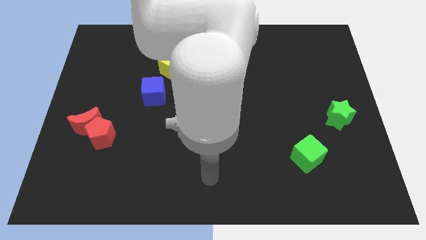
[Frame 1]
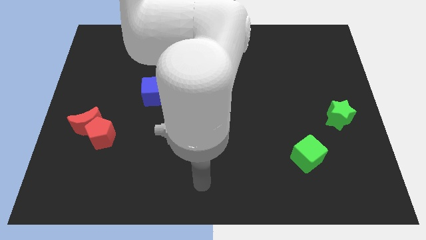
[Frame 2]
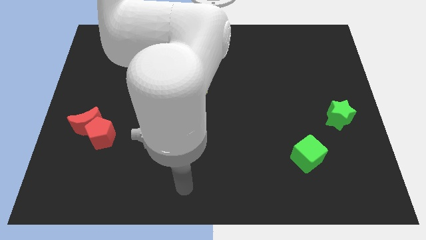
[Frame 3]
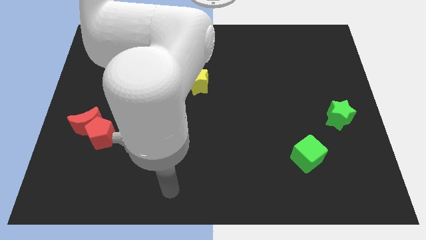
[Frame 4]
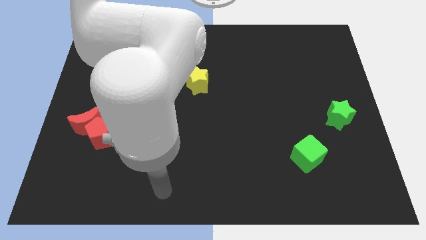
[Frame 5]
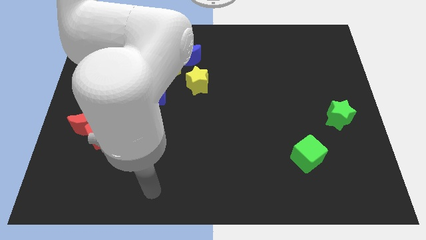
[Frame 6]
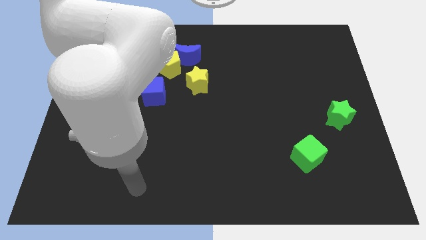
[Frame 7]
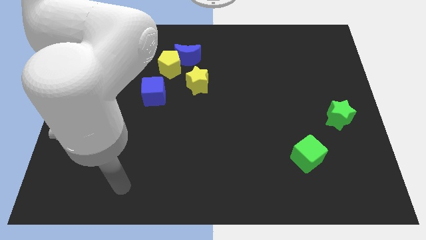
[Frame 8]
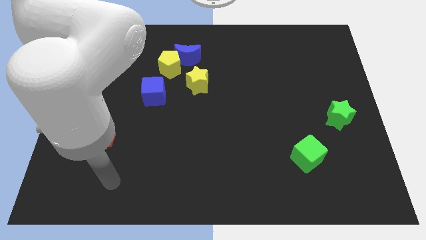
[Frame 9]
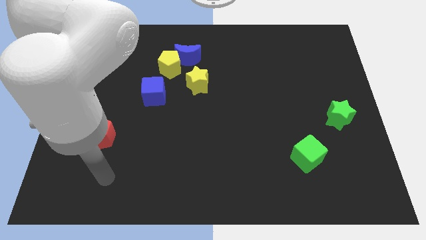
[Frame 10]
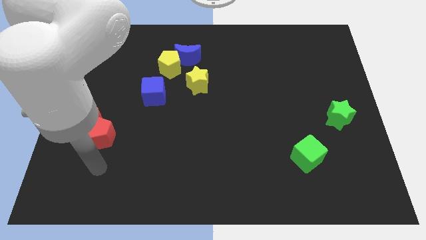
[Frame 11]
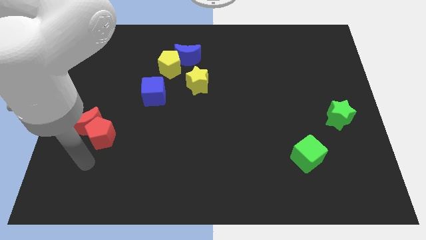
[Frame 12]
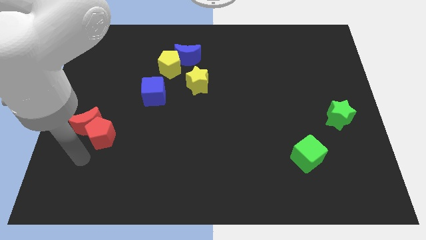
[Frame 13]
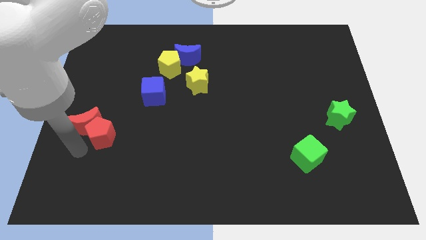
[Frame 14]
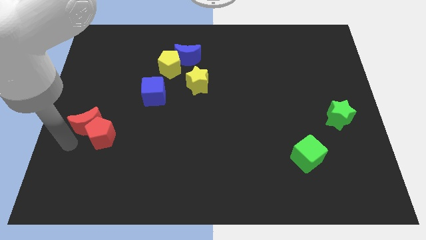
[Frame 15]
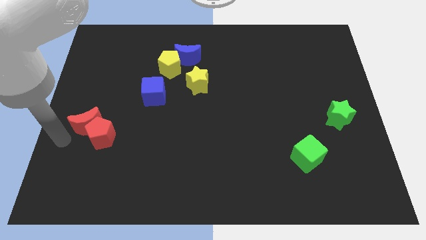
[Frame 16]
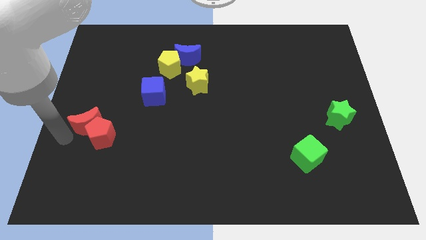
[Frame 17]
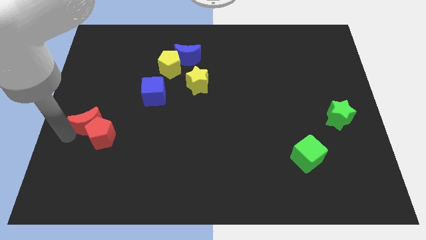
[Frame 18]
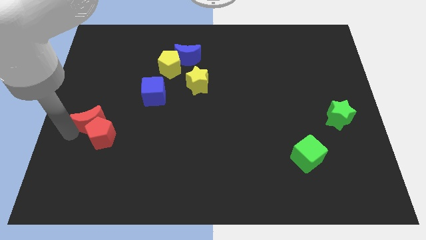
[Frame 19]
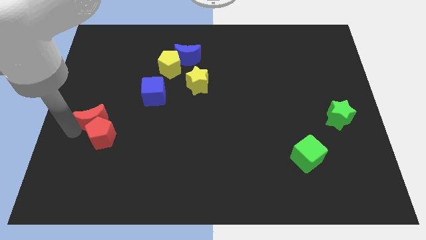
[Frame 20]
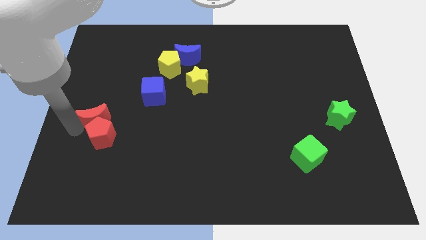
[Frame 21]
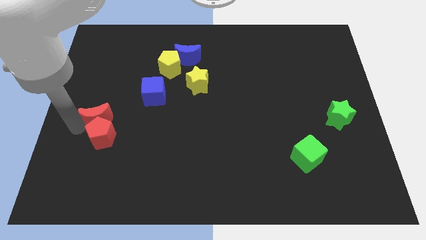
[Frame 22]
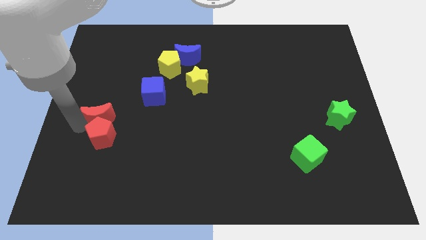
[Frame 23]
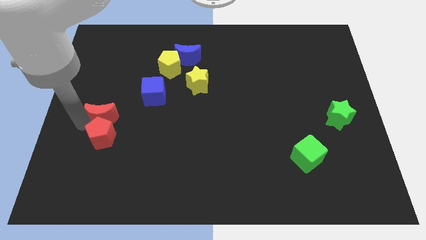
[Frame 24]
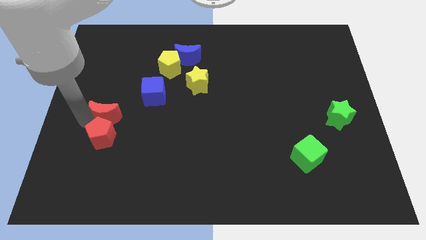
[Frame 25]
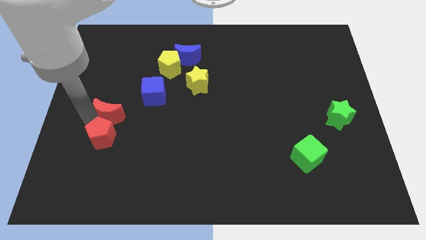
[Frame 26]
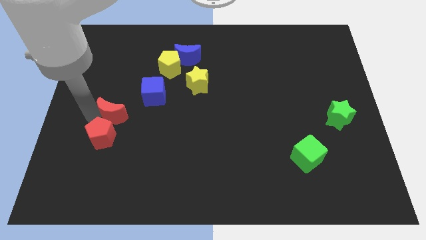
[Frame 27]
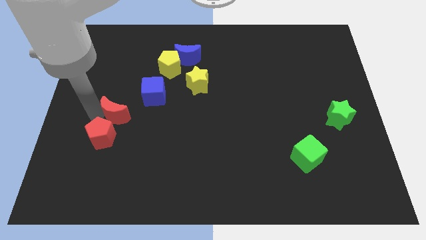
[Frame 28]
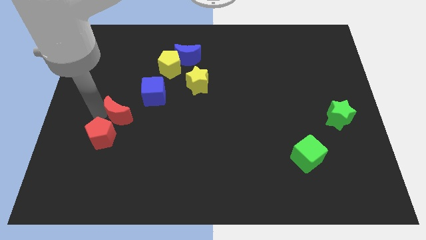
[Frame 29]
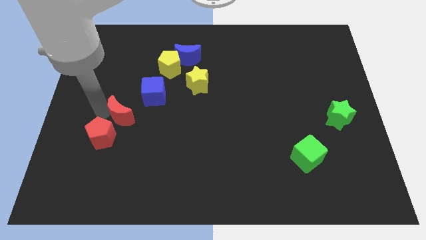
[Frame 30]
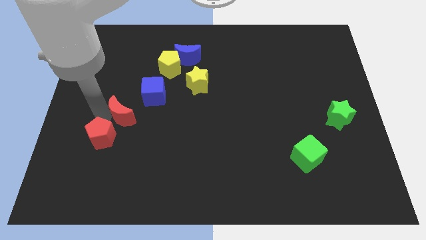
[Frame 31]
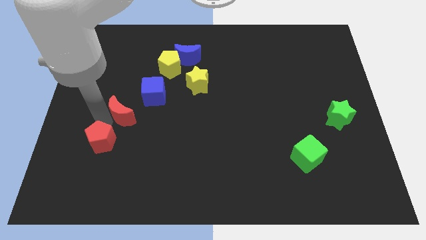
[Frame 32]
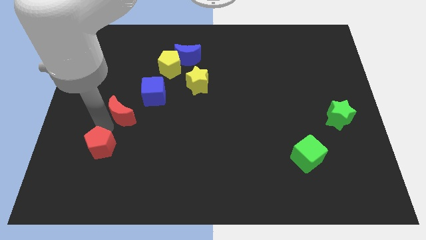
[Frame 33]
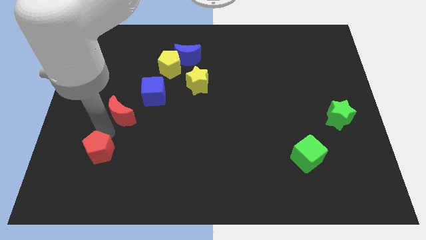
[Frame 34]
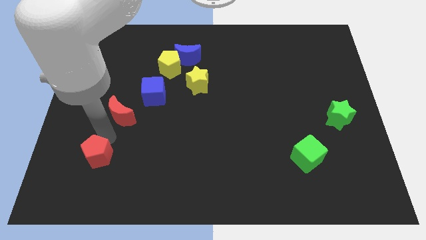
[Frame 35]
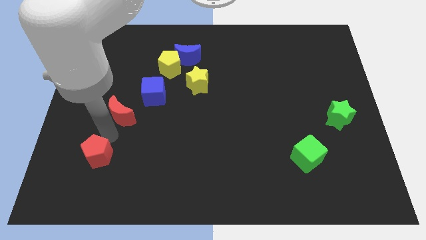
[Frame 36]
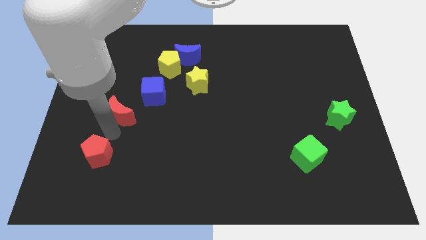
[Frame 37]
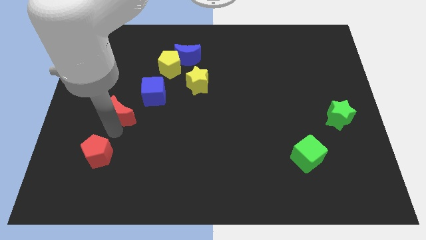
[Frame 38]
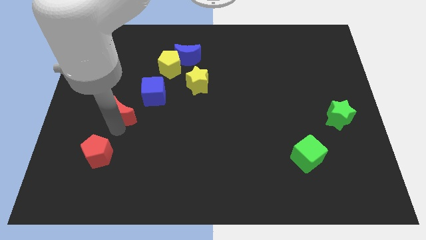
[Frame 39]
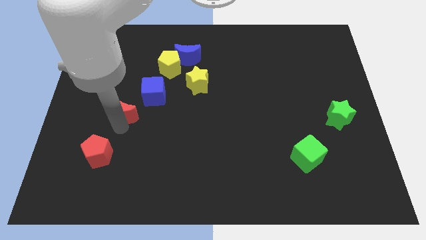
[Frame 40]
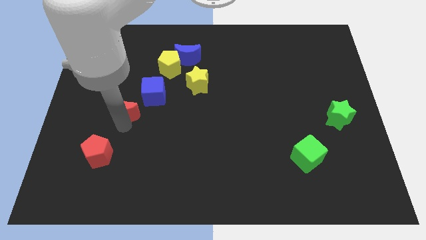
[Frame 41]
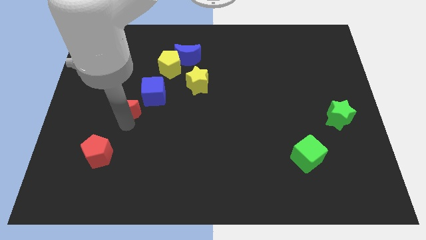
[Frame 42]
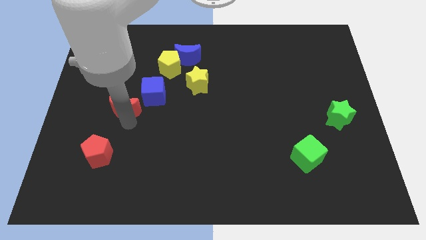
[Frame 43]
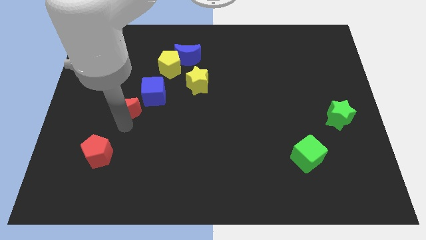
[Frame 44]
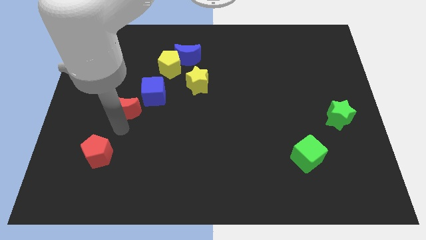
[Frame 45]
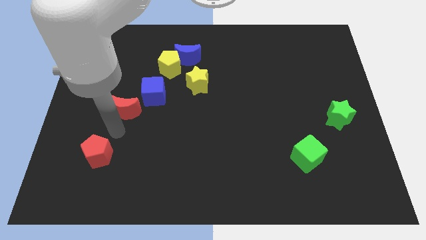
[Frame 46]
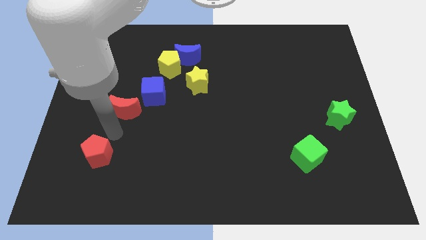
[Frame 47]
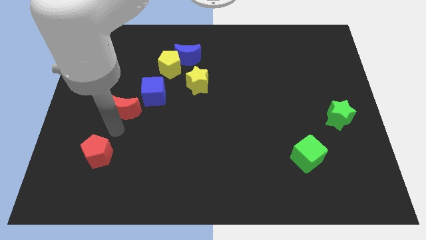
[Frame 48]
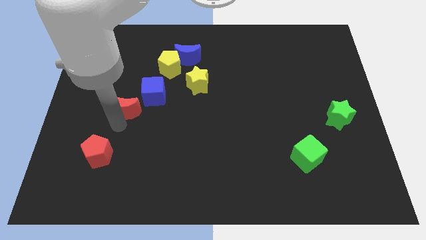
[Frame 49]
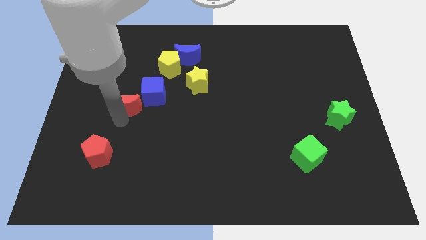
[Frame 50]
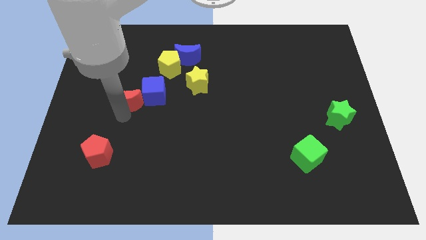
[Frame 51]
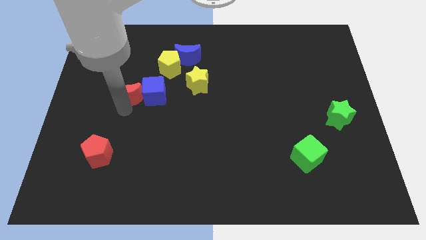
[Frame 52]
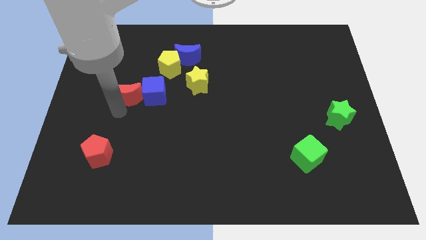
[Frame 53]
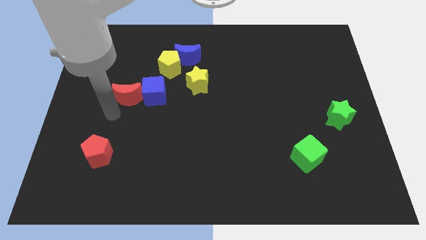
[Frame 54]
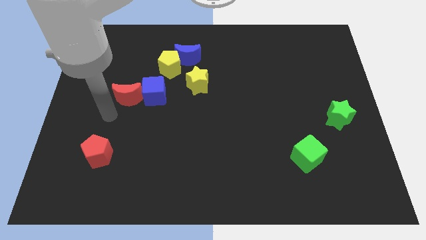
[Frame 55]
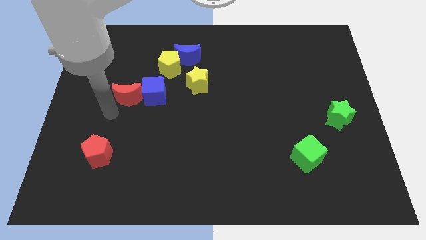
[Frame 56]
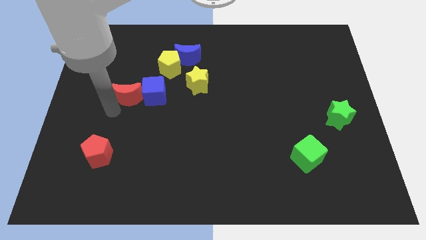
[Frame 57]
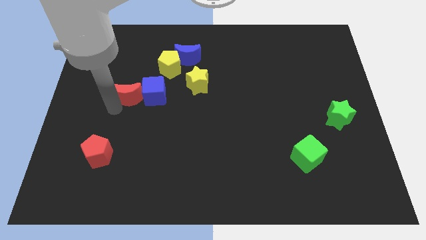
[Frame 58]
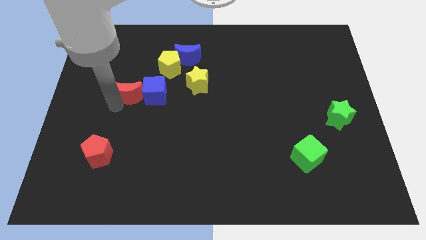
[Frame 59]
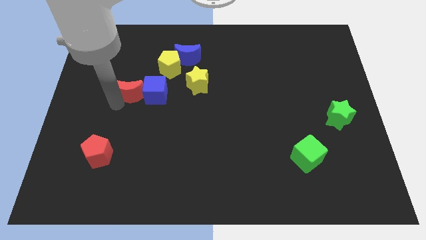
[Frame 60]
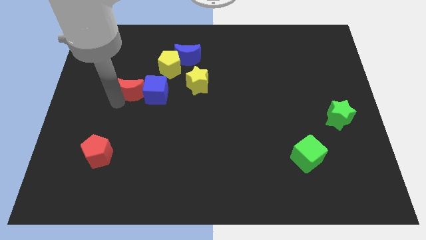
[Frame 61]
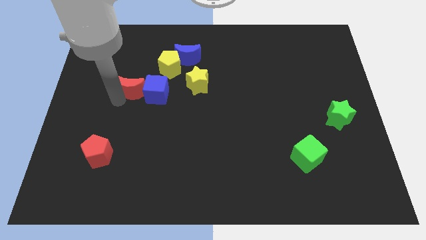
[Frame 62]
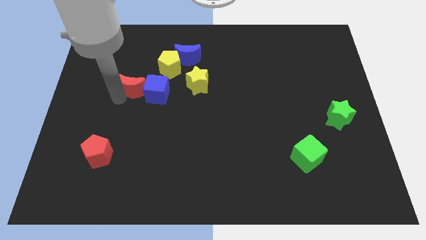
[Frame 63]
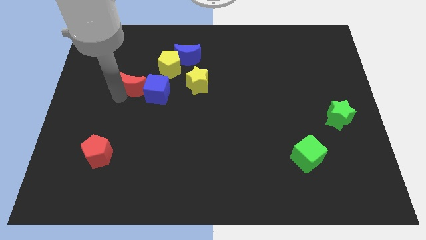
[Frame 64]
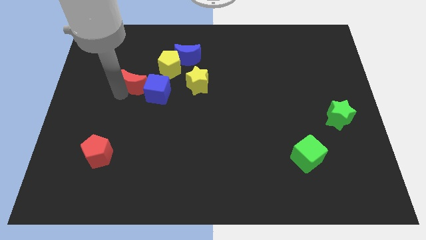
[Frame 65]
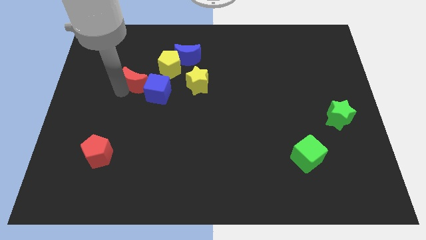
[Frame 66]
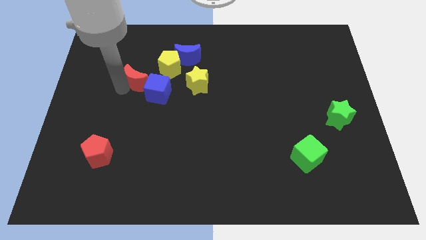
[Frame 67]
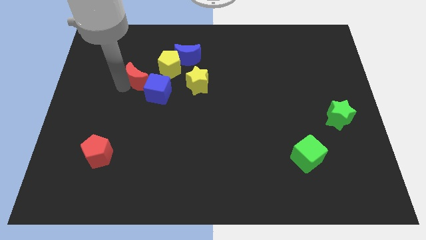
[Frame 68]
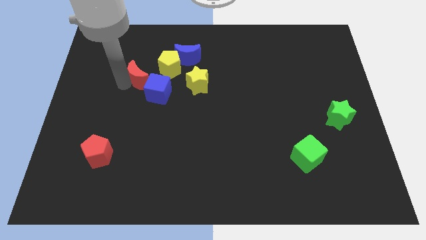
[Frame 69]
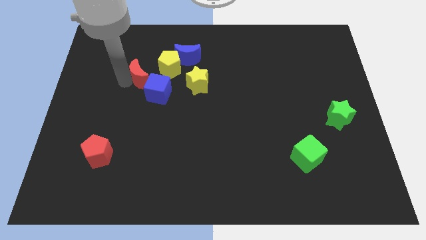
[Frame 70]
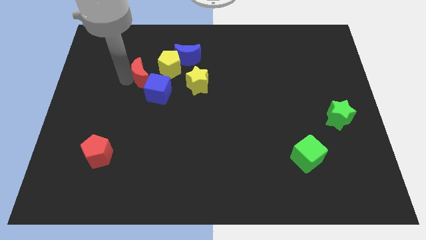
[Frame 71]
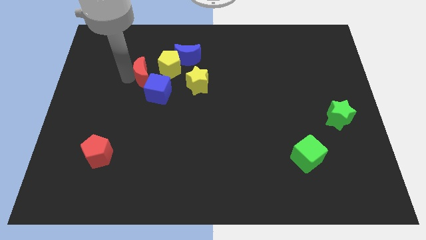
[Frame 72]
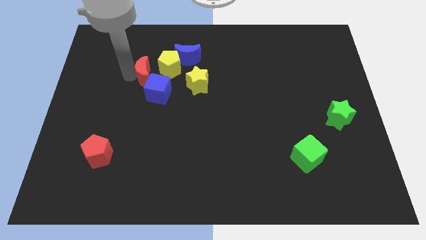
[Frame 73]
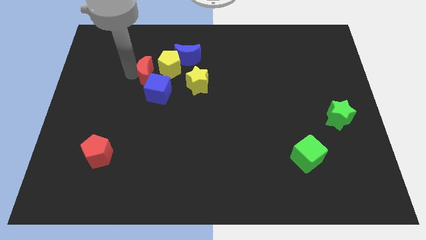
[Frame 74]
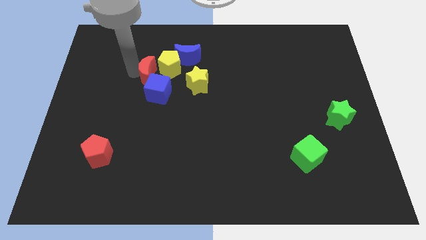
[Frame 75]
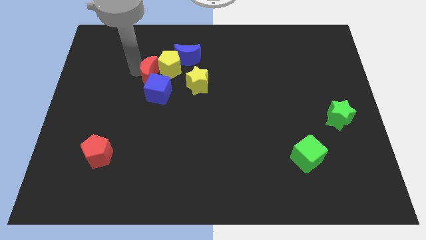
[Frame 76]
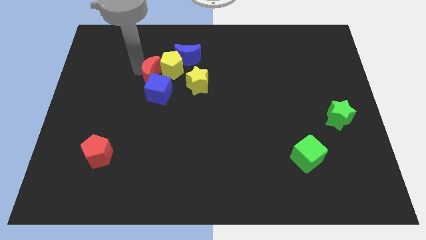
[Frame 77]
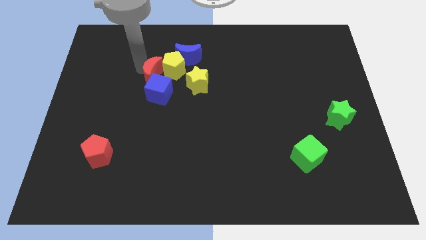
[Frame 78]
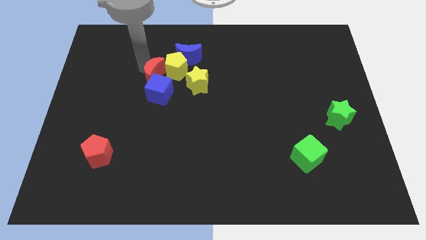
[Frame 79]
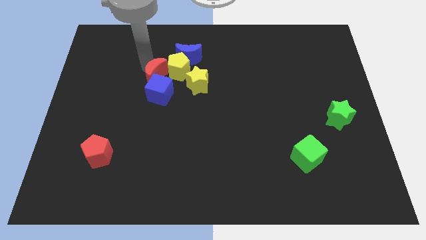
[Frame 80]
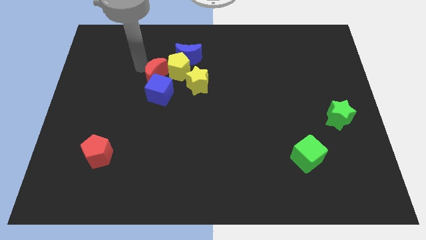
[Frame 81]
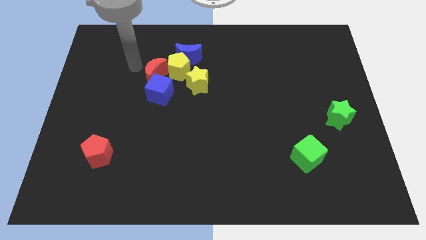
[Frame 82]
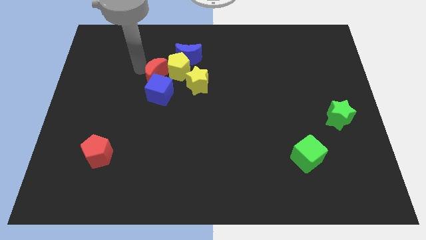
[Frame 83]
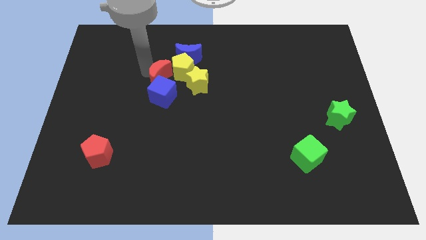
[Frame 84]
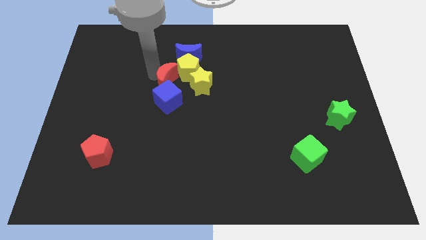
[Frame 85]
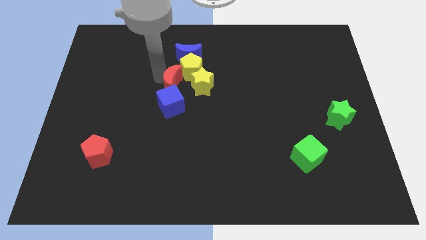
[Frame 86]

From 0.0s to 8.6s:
slide the red moon below the blue moon
